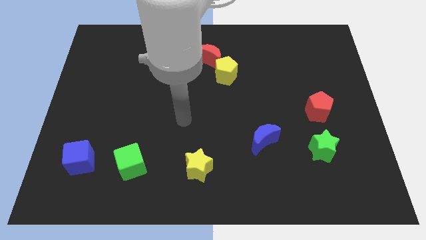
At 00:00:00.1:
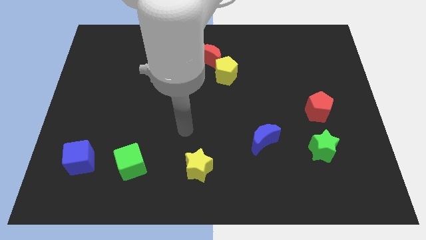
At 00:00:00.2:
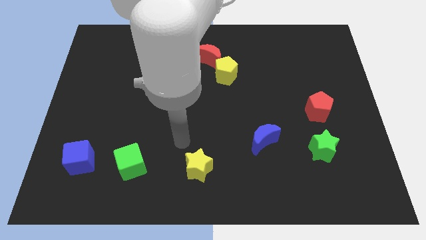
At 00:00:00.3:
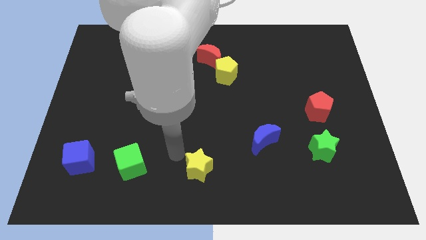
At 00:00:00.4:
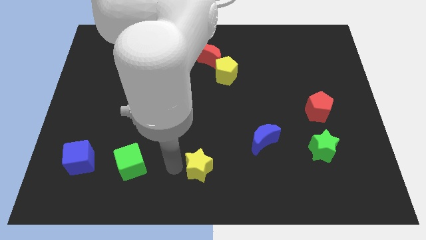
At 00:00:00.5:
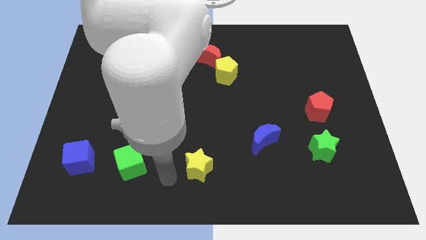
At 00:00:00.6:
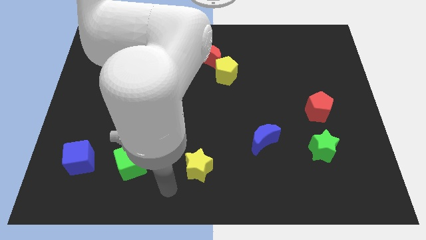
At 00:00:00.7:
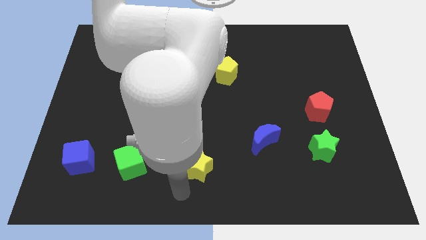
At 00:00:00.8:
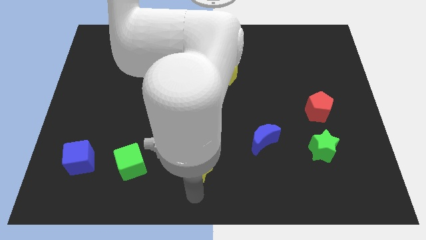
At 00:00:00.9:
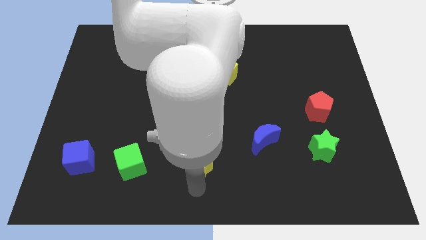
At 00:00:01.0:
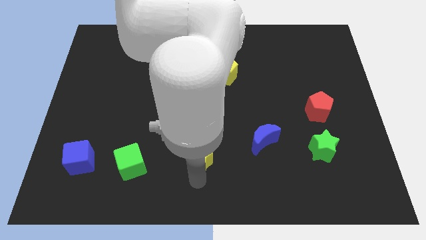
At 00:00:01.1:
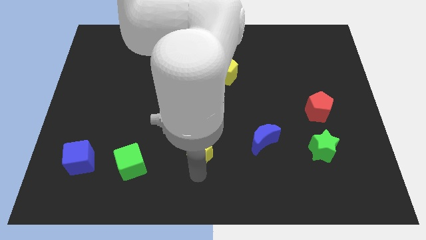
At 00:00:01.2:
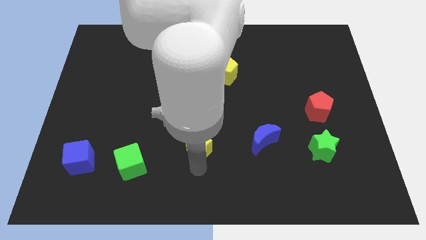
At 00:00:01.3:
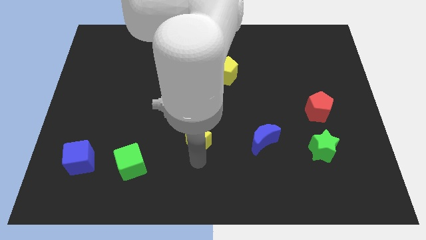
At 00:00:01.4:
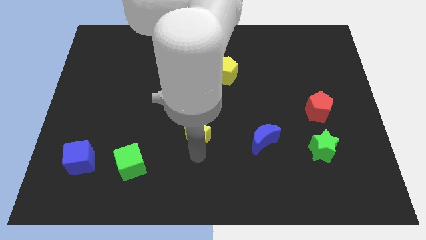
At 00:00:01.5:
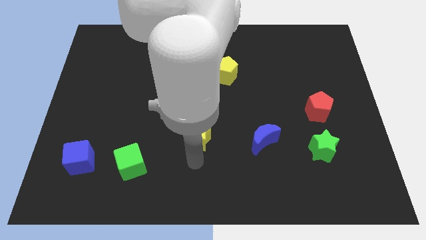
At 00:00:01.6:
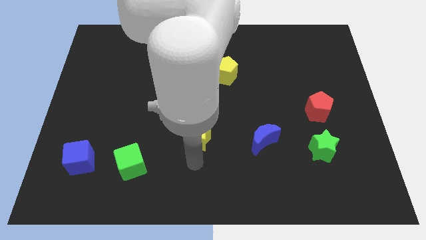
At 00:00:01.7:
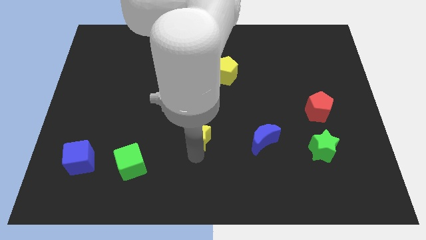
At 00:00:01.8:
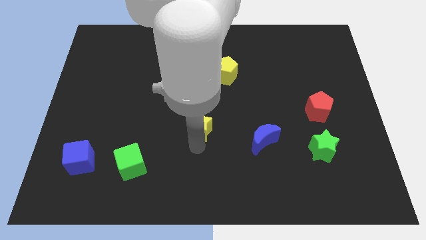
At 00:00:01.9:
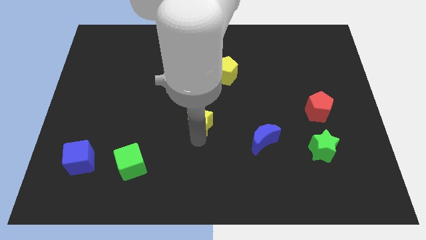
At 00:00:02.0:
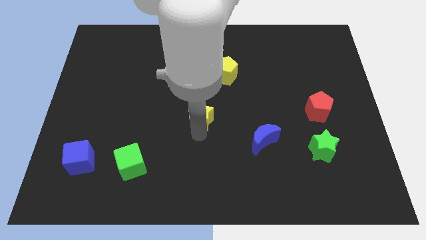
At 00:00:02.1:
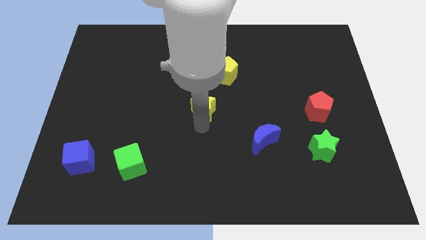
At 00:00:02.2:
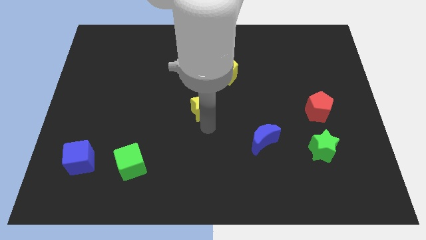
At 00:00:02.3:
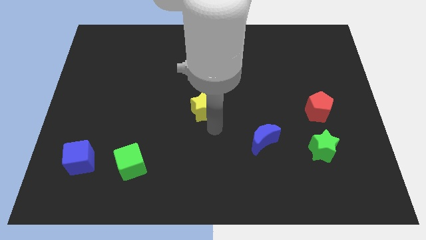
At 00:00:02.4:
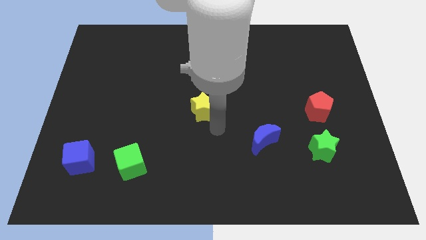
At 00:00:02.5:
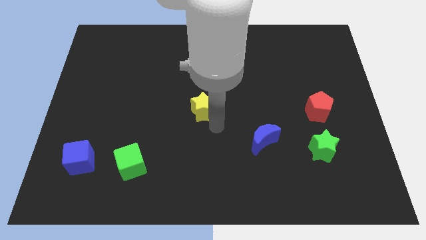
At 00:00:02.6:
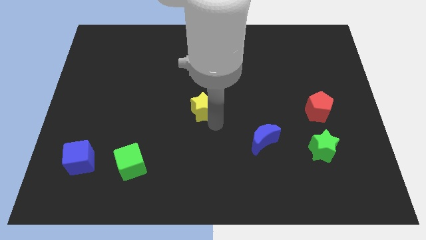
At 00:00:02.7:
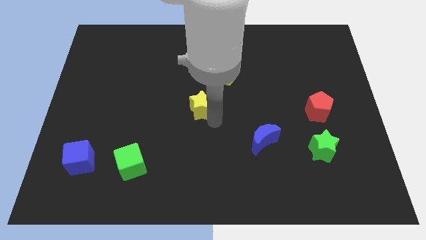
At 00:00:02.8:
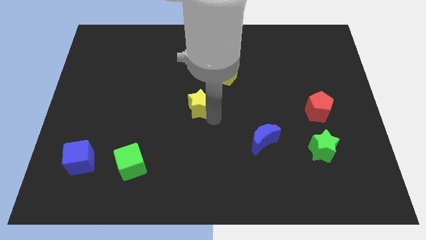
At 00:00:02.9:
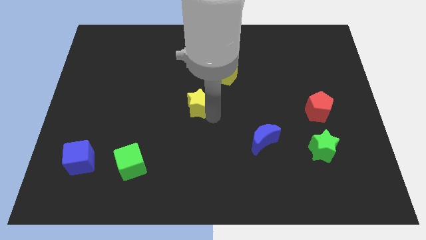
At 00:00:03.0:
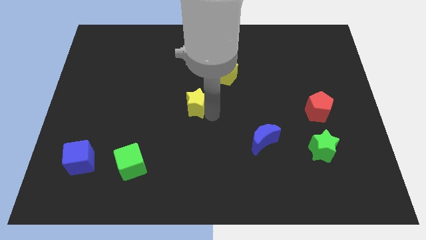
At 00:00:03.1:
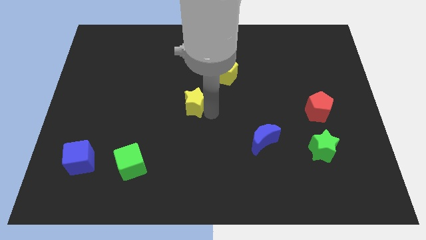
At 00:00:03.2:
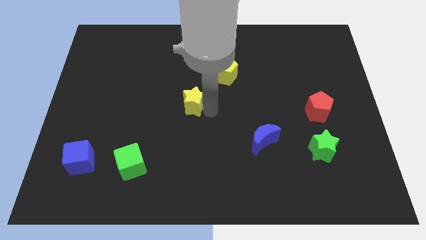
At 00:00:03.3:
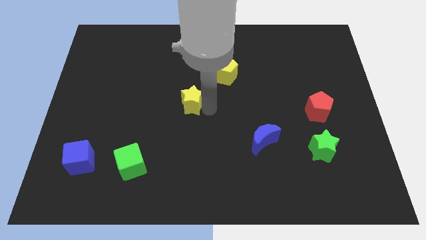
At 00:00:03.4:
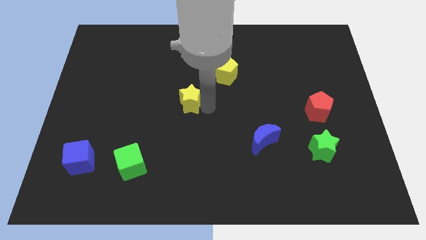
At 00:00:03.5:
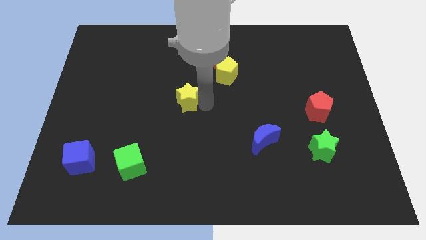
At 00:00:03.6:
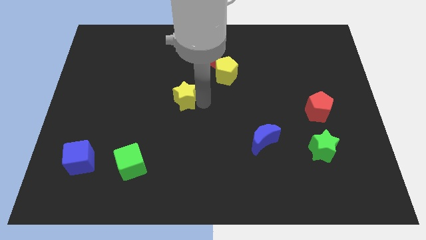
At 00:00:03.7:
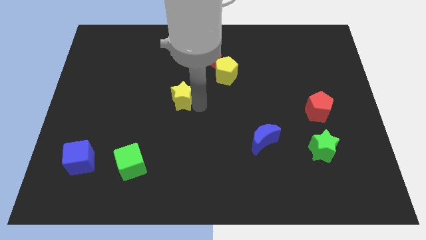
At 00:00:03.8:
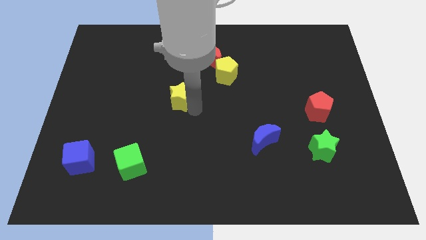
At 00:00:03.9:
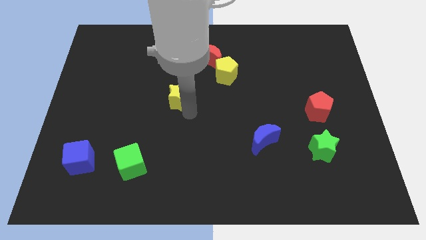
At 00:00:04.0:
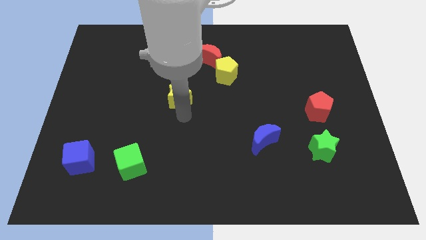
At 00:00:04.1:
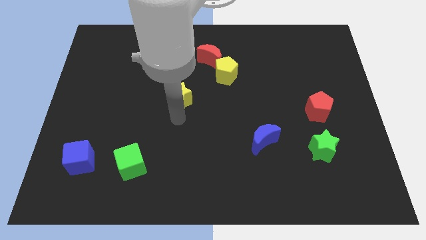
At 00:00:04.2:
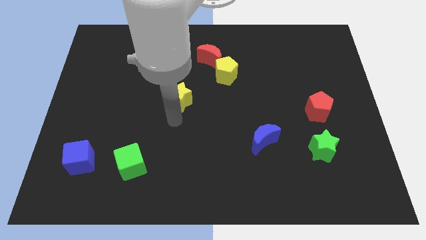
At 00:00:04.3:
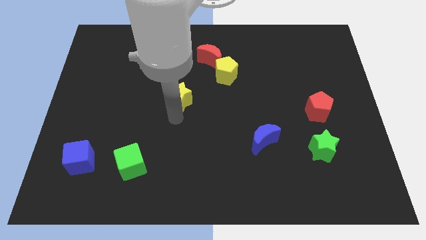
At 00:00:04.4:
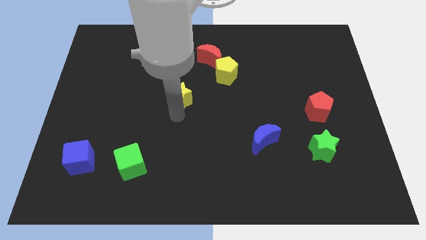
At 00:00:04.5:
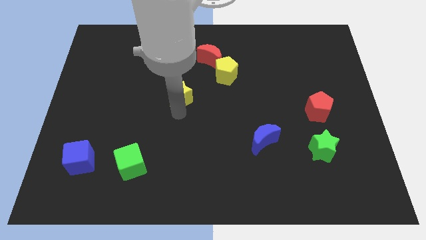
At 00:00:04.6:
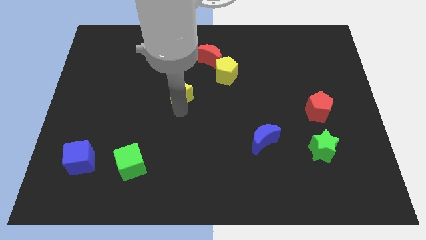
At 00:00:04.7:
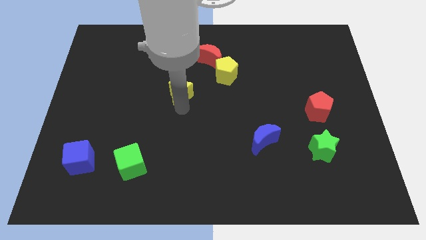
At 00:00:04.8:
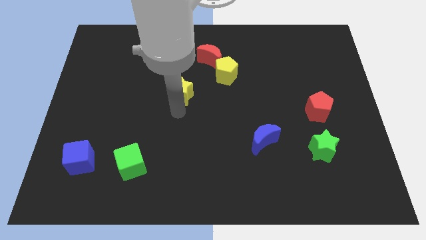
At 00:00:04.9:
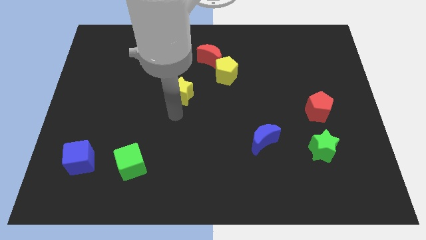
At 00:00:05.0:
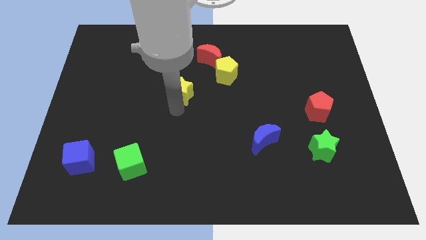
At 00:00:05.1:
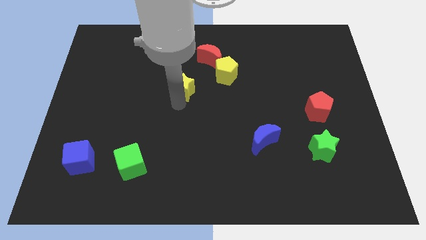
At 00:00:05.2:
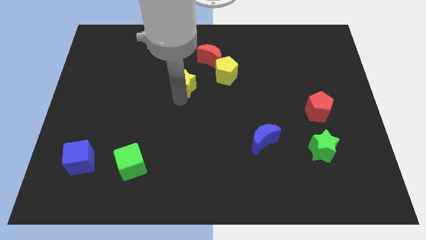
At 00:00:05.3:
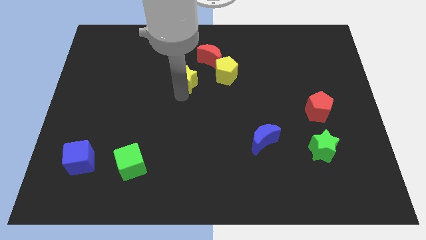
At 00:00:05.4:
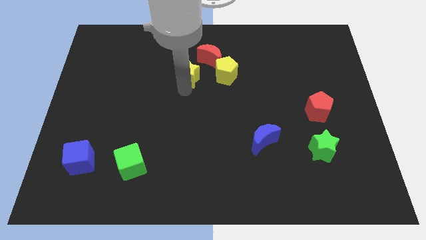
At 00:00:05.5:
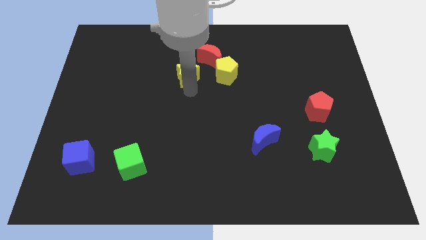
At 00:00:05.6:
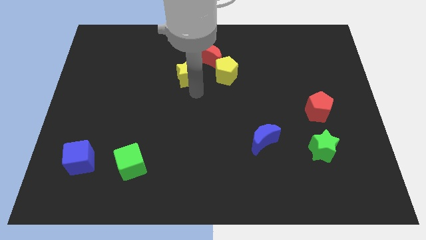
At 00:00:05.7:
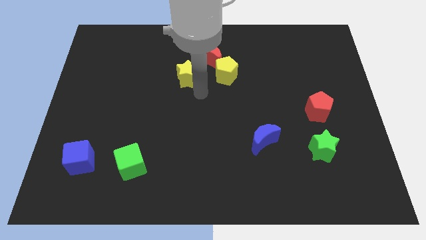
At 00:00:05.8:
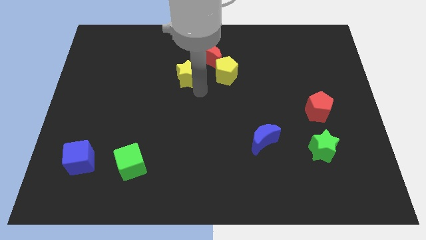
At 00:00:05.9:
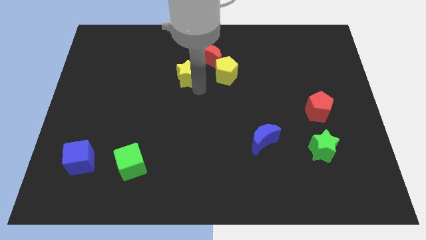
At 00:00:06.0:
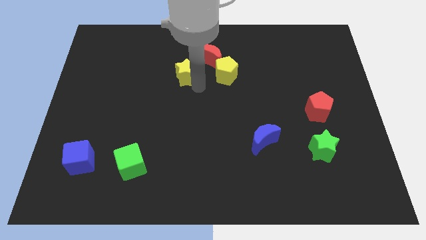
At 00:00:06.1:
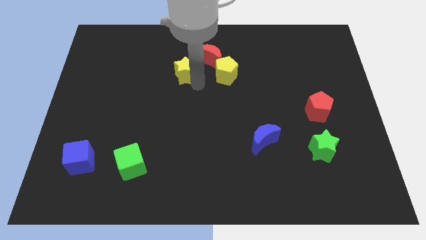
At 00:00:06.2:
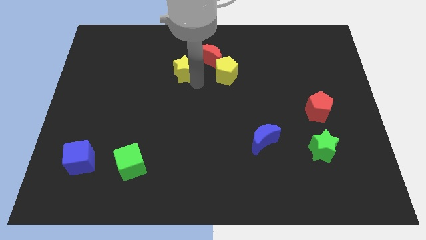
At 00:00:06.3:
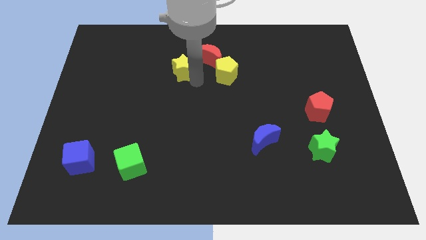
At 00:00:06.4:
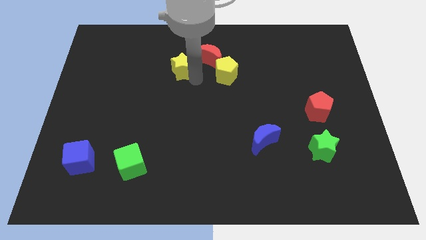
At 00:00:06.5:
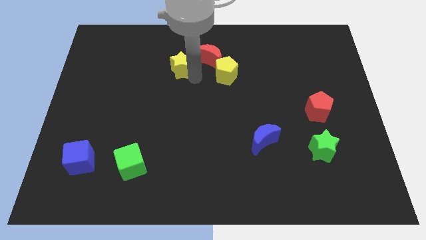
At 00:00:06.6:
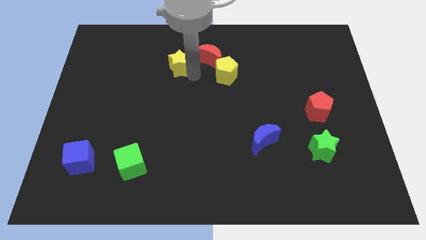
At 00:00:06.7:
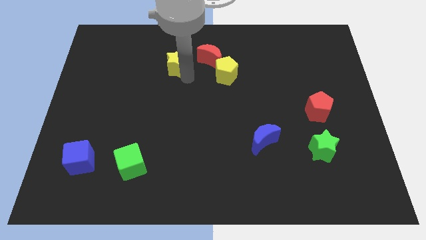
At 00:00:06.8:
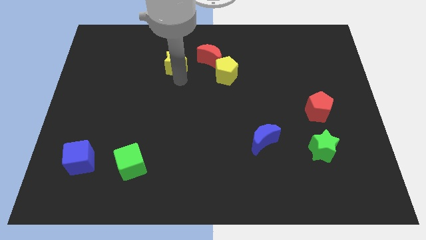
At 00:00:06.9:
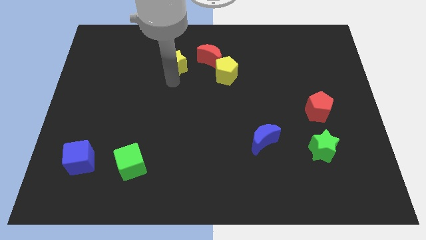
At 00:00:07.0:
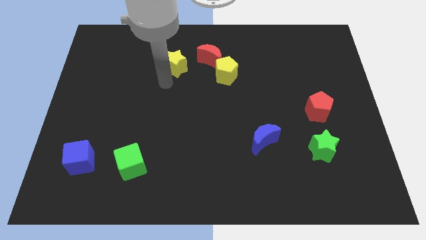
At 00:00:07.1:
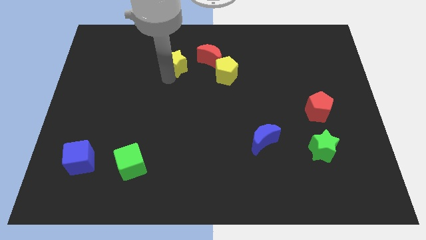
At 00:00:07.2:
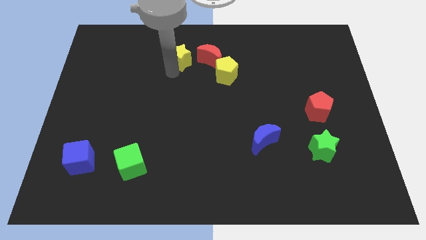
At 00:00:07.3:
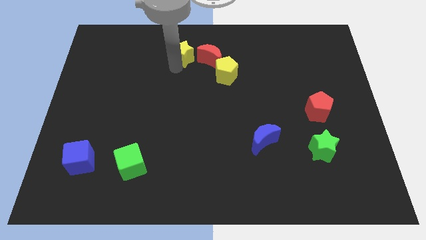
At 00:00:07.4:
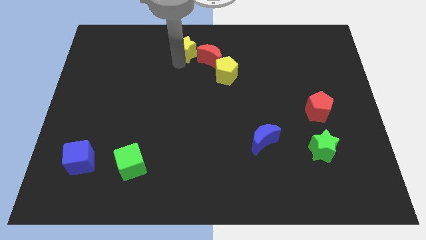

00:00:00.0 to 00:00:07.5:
slide the yellow star to the top
